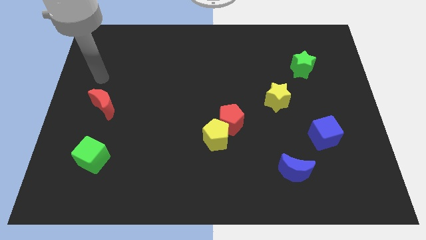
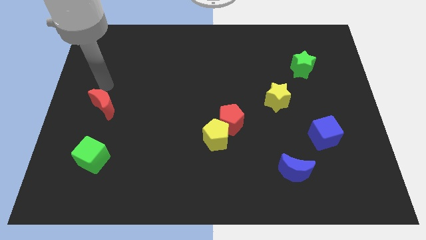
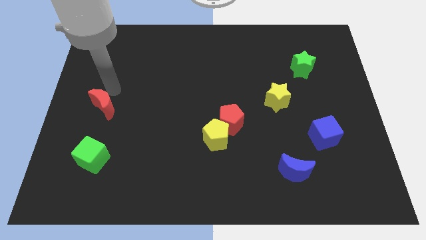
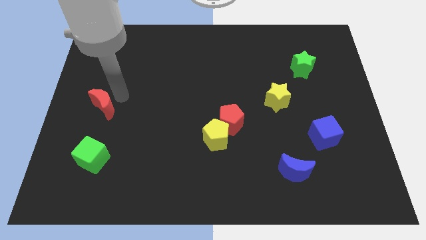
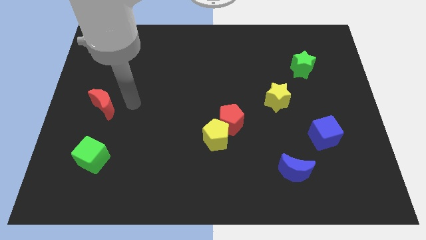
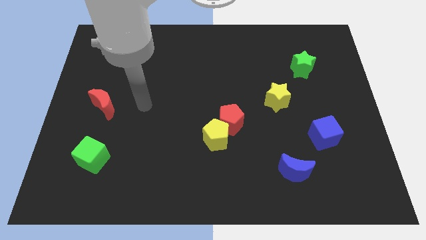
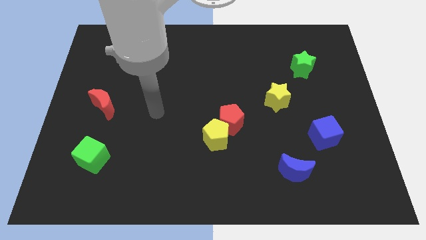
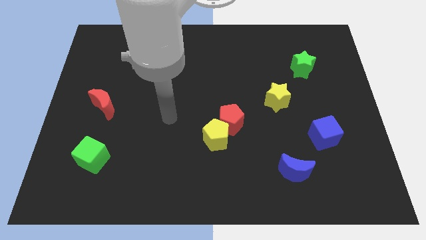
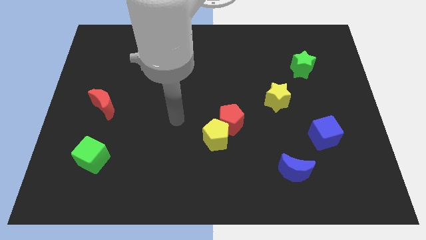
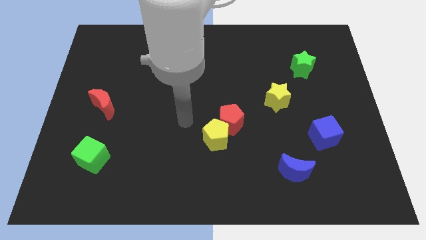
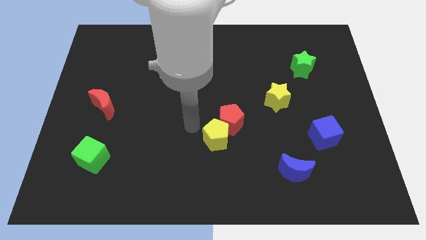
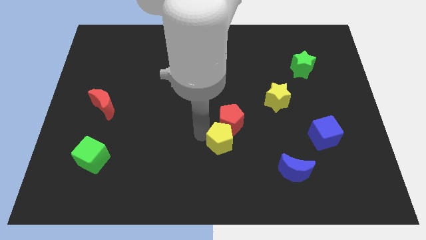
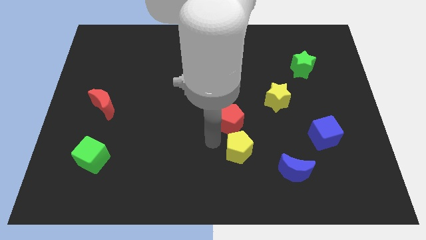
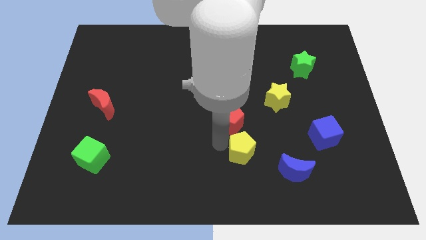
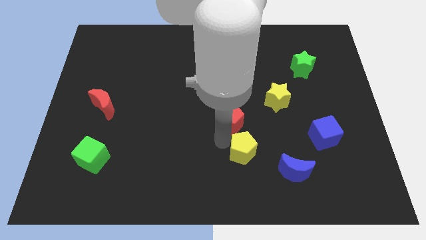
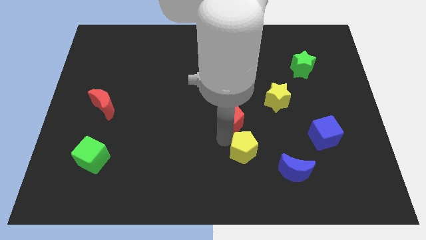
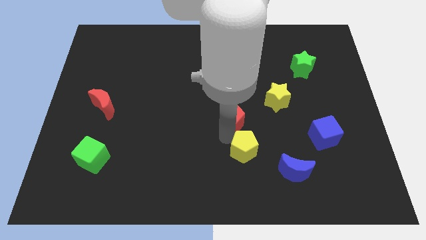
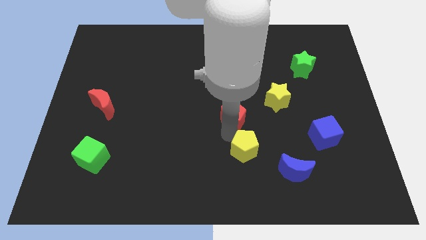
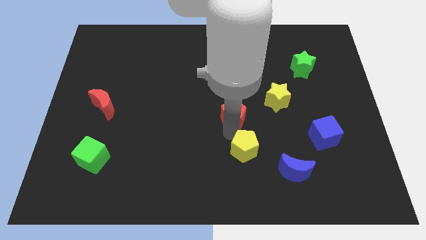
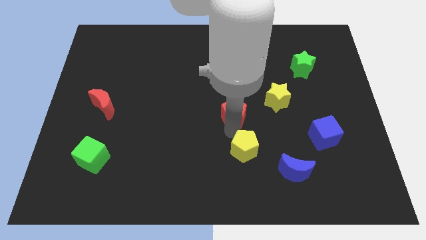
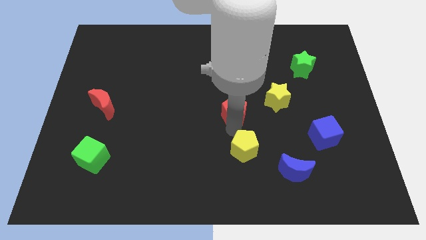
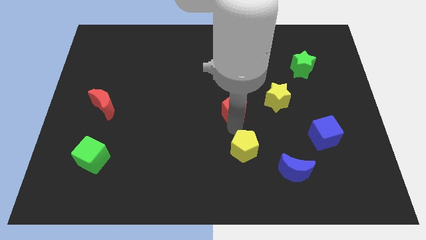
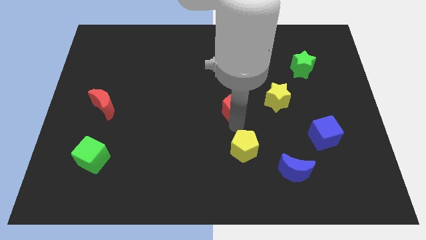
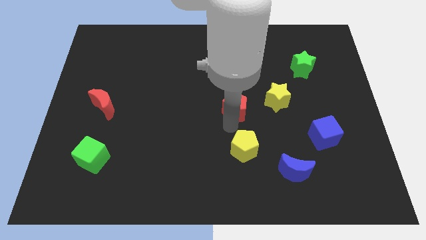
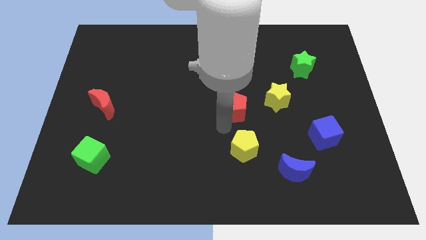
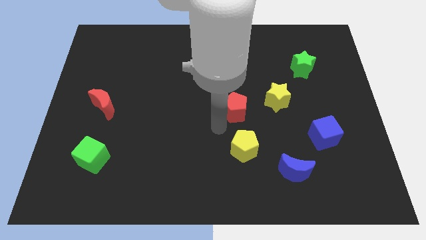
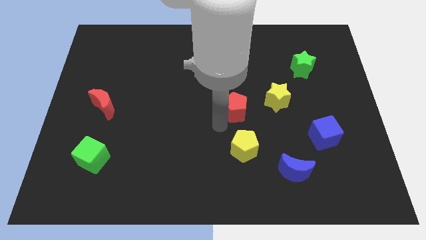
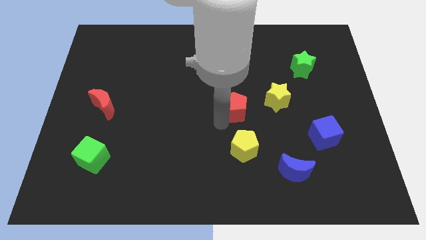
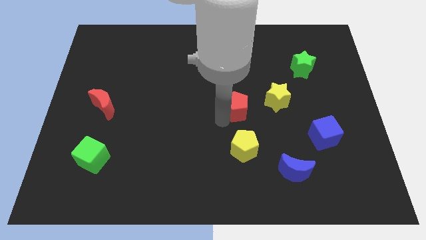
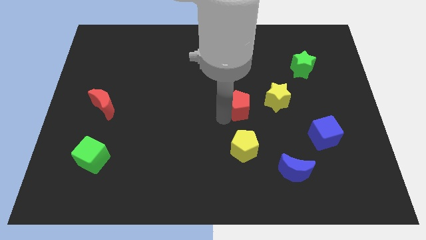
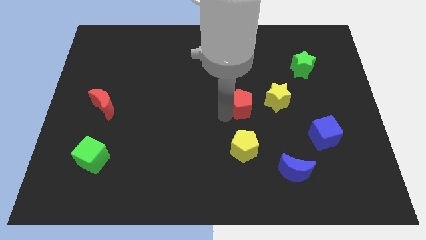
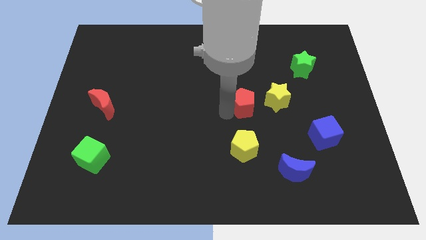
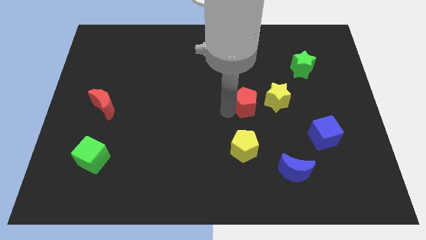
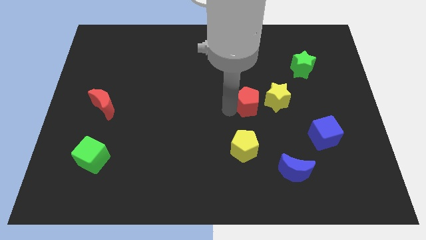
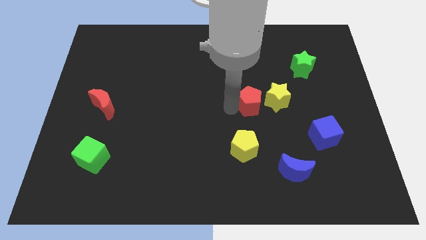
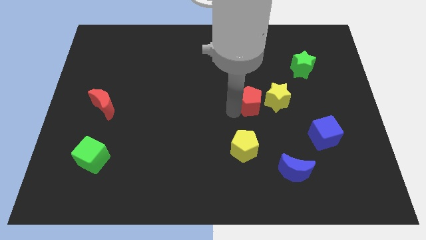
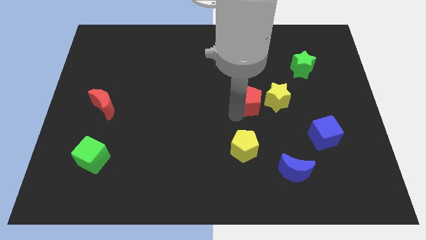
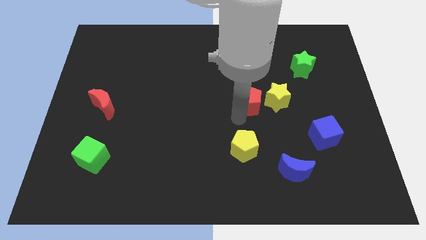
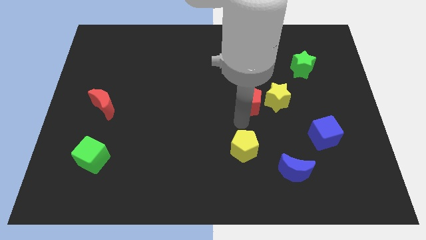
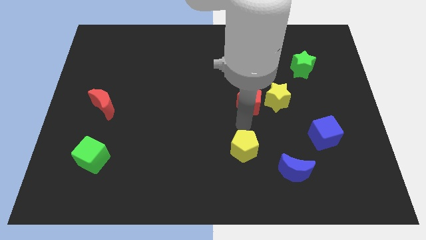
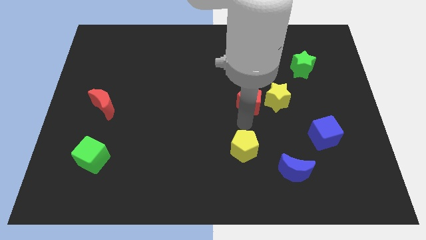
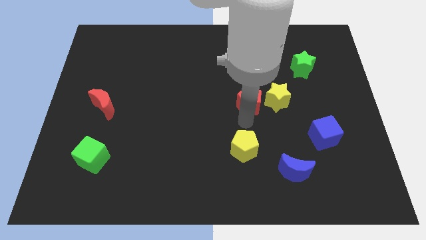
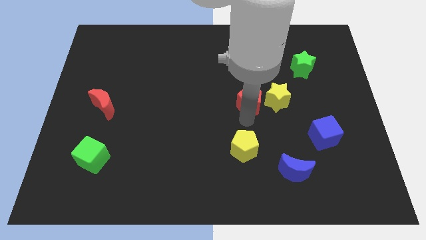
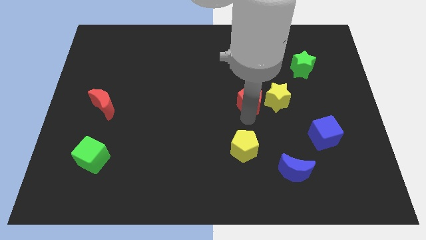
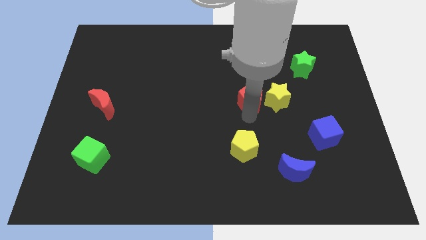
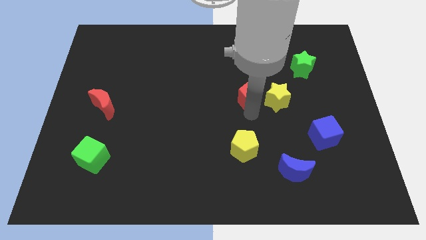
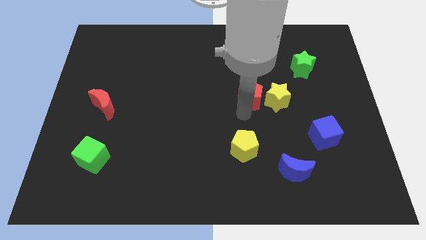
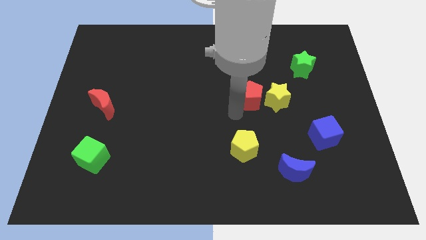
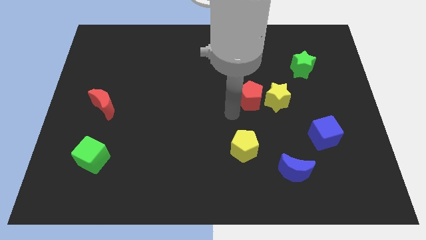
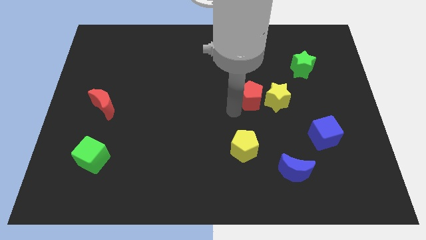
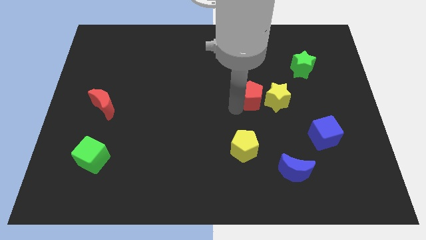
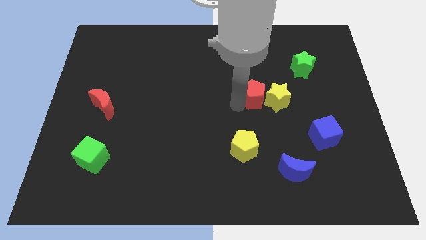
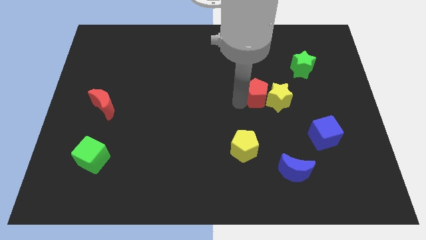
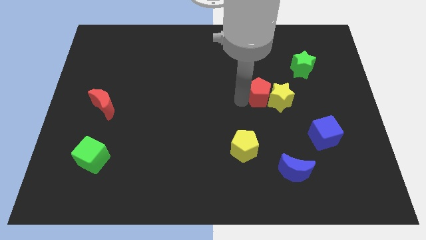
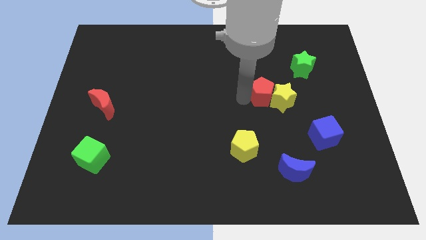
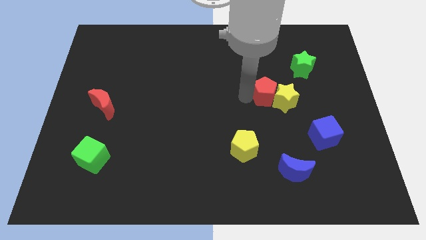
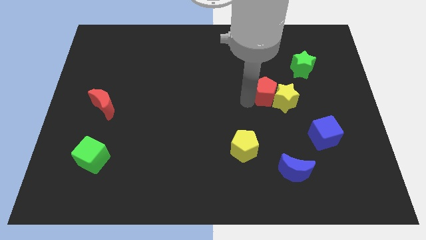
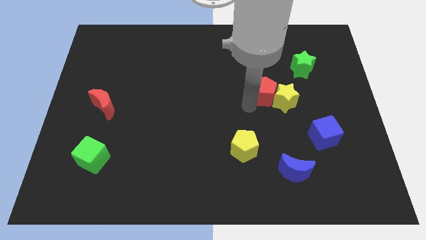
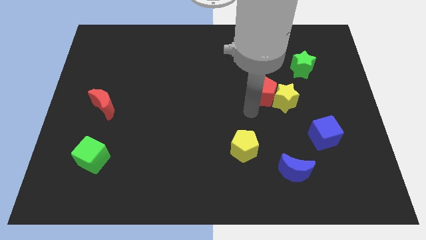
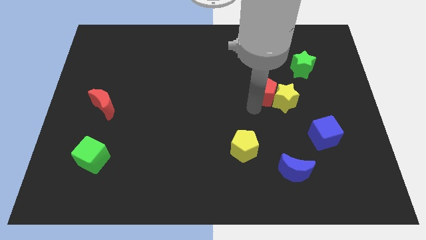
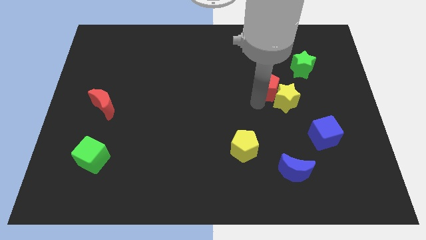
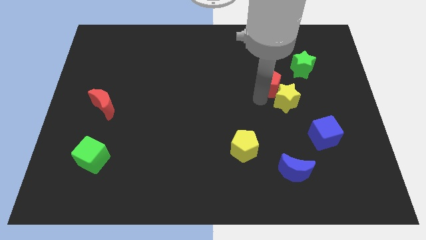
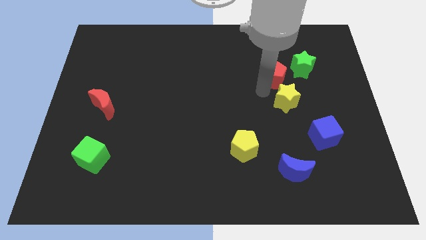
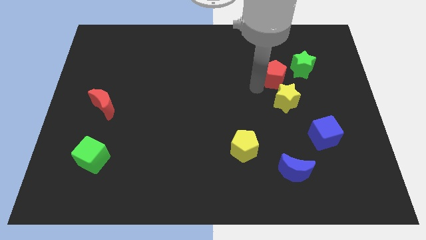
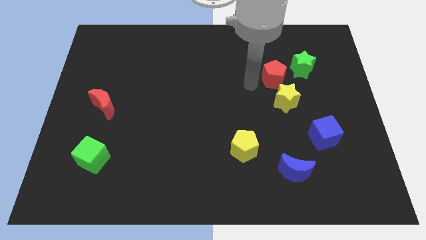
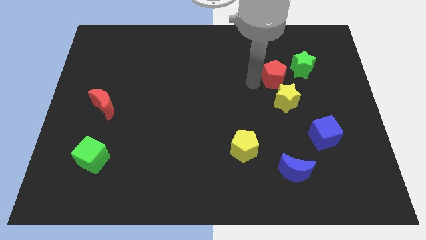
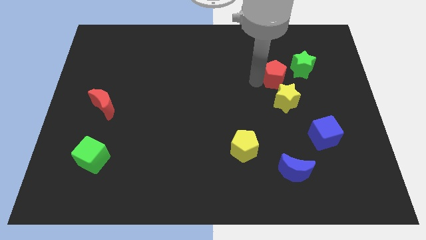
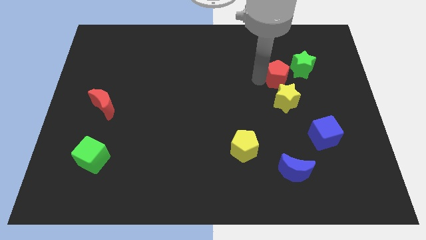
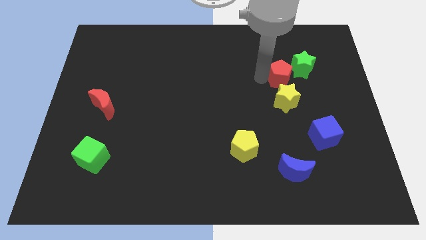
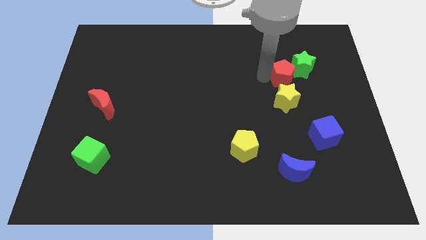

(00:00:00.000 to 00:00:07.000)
slide the red pentagon next to the green star

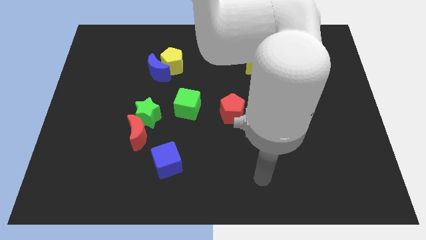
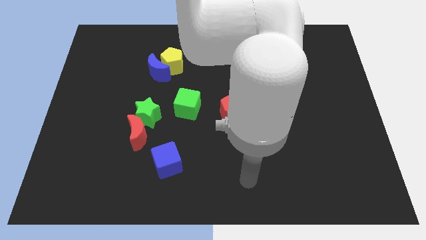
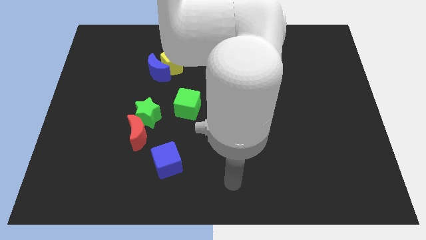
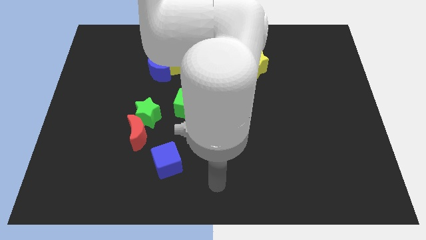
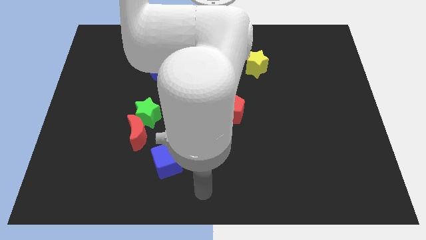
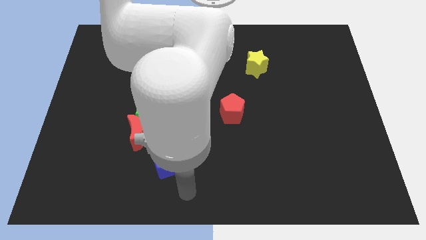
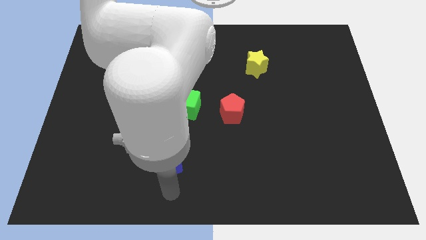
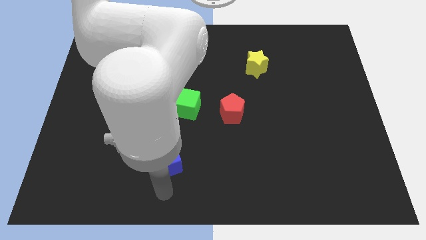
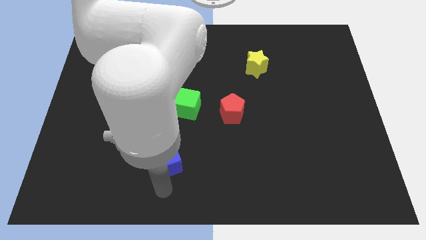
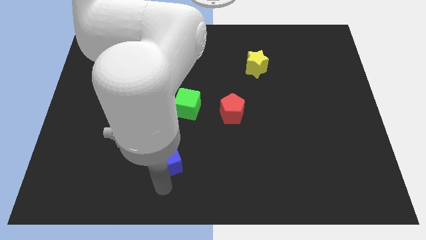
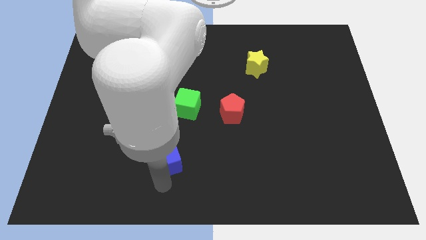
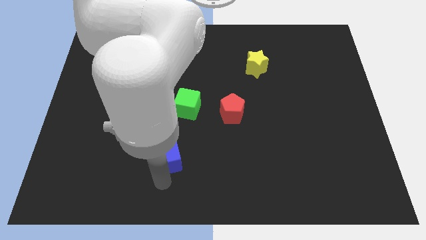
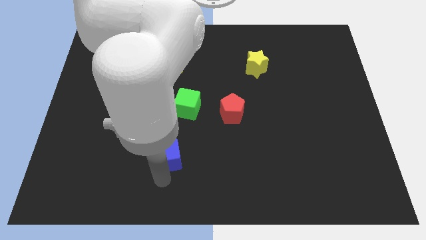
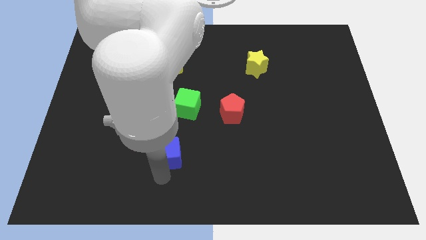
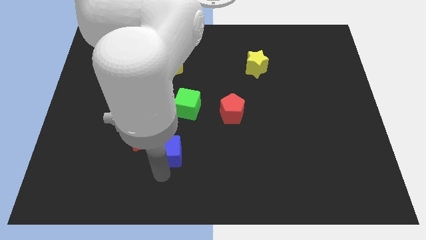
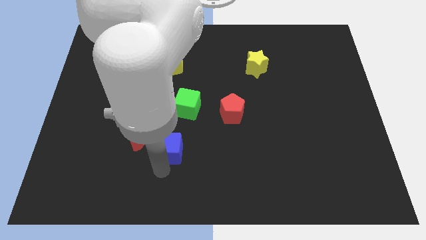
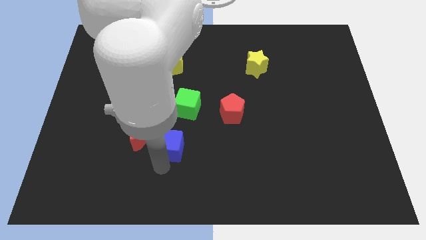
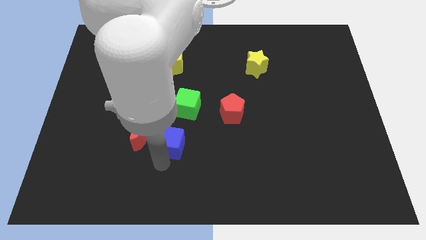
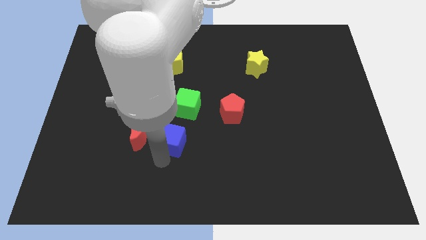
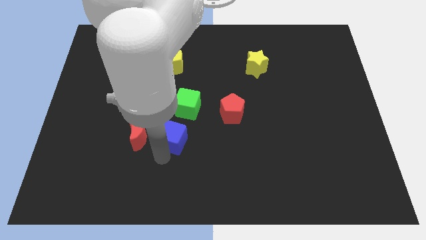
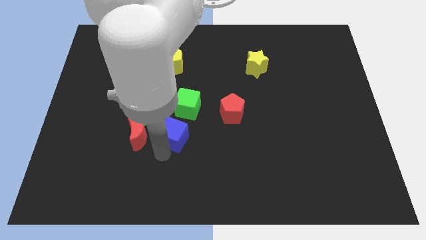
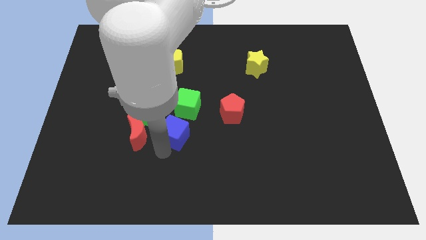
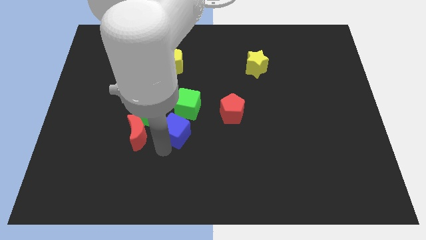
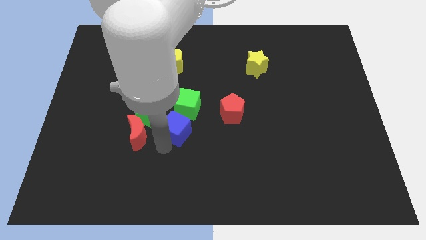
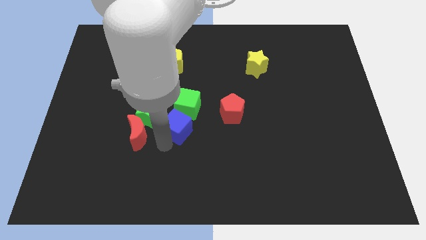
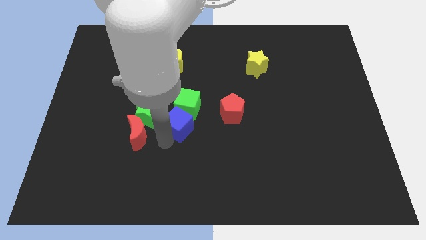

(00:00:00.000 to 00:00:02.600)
put the blue cube close to the green cube
